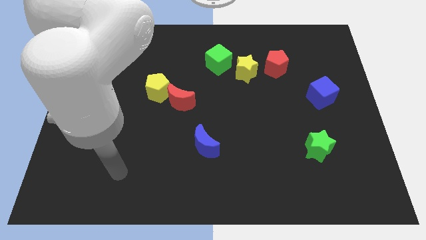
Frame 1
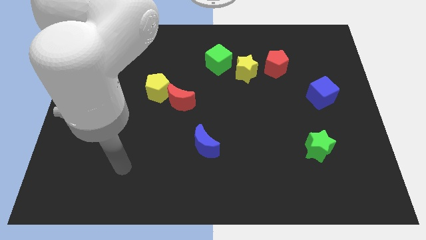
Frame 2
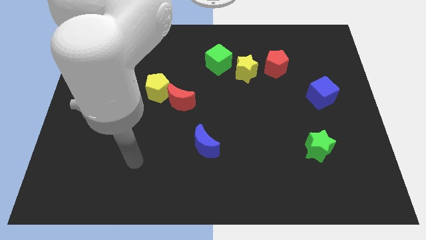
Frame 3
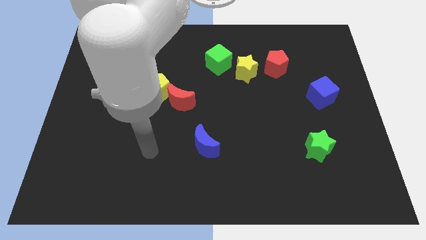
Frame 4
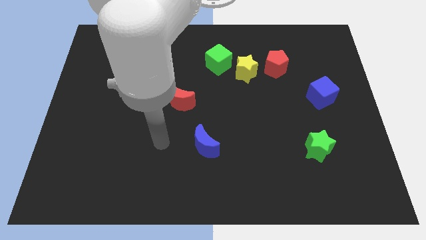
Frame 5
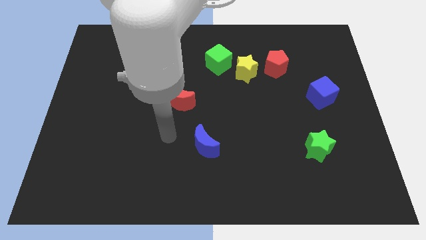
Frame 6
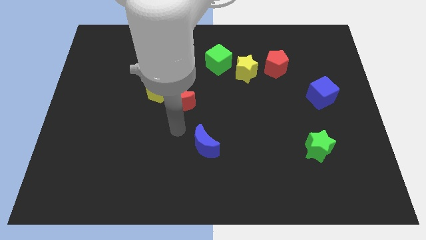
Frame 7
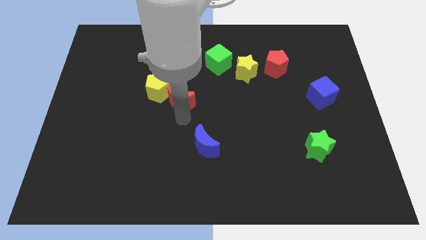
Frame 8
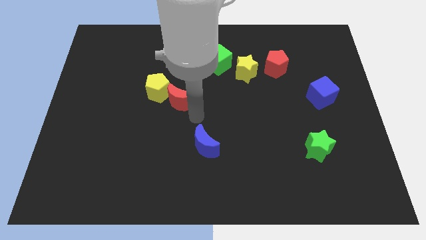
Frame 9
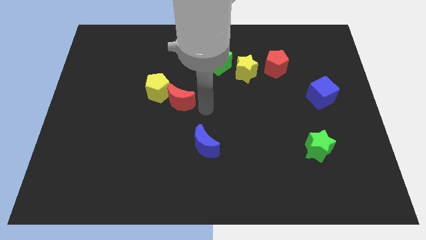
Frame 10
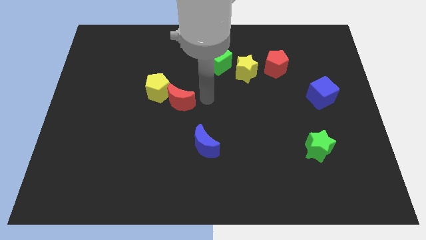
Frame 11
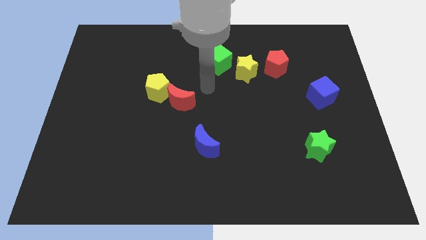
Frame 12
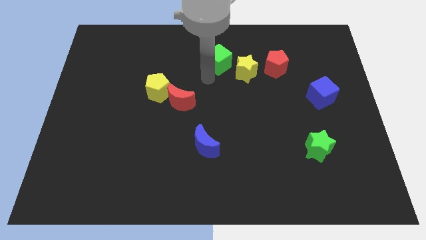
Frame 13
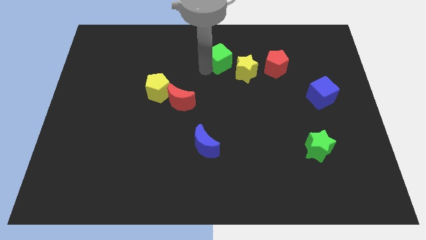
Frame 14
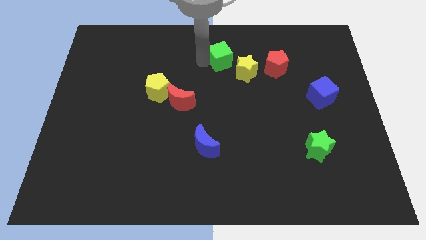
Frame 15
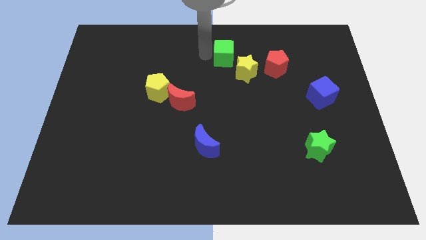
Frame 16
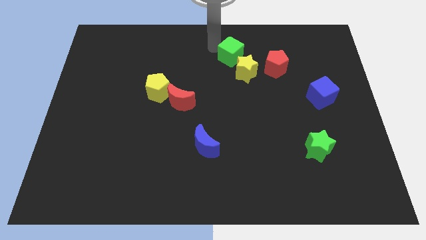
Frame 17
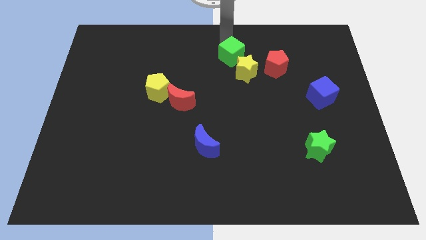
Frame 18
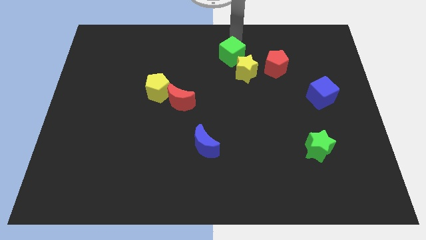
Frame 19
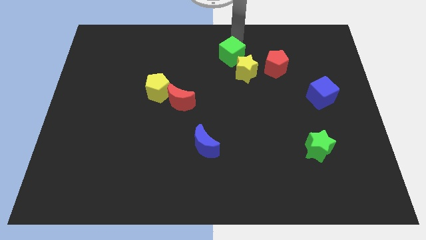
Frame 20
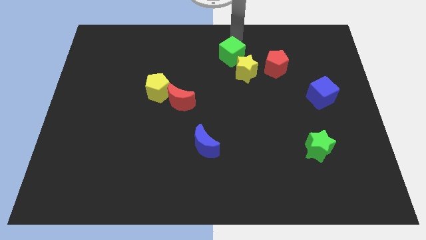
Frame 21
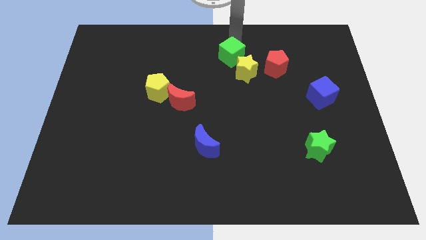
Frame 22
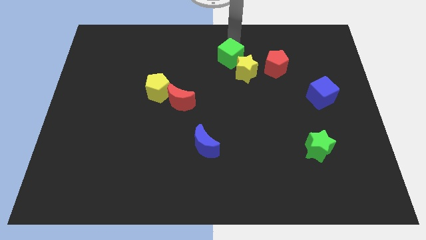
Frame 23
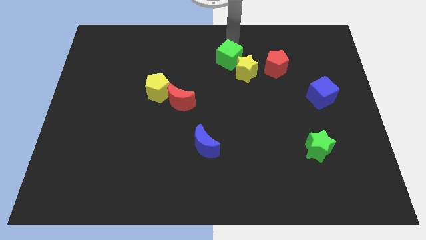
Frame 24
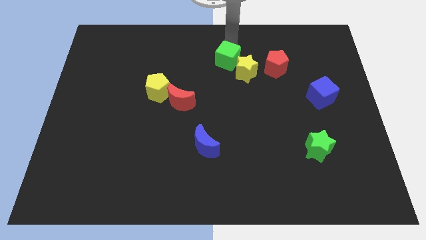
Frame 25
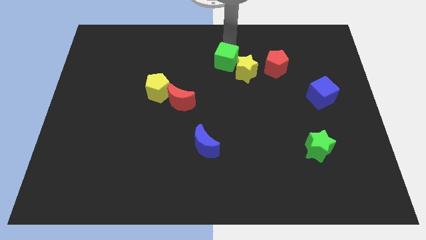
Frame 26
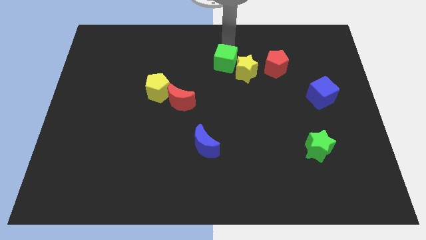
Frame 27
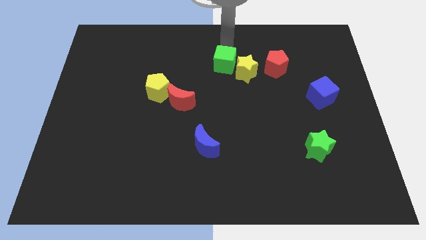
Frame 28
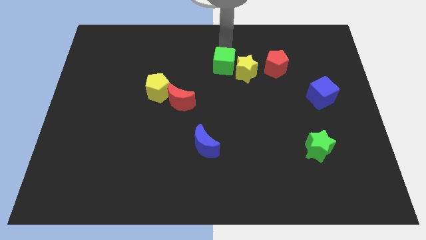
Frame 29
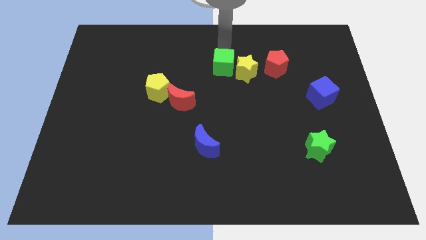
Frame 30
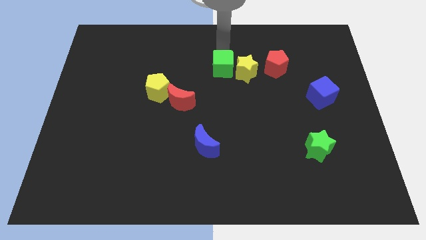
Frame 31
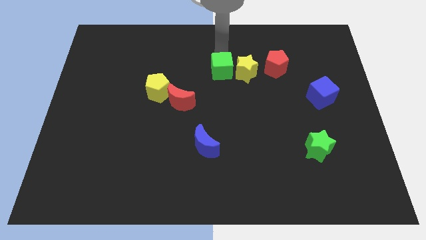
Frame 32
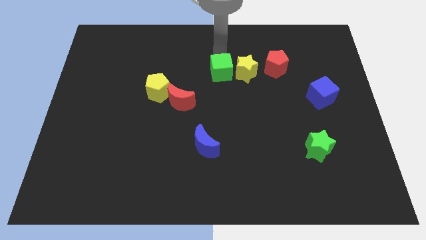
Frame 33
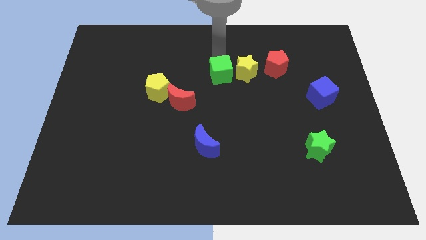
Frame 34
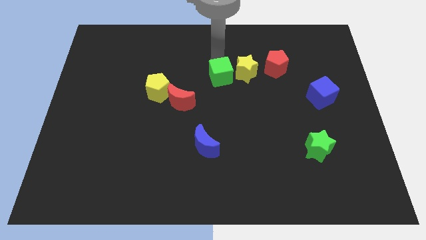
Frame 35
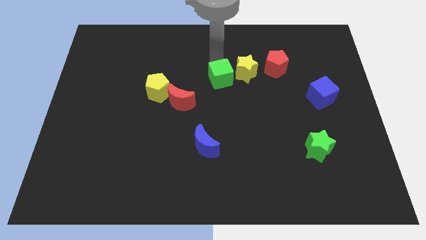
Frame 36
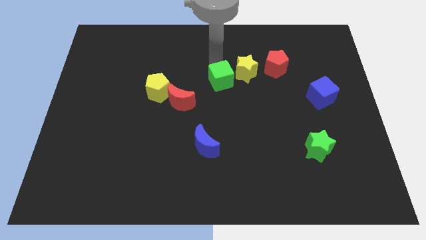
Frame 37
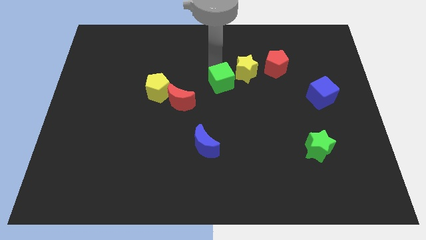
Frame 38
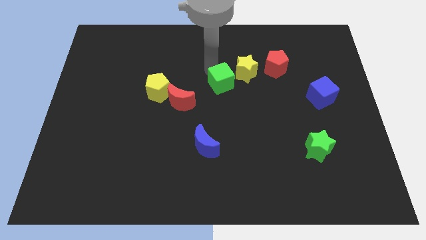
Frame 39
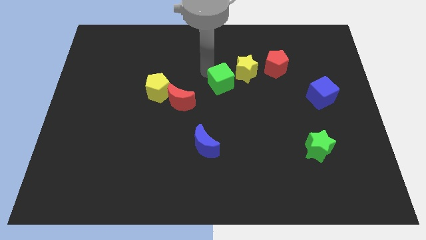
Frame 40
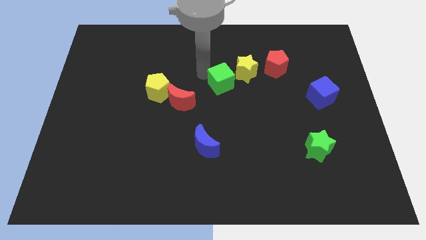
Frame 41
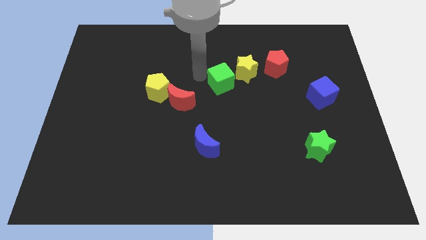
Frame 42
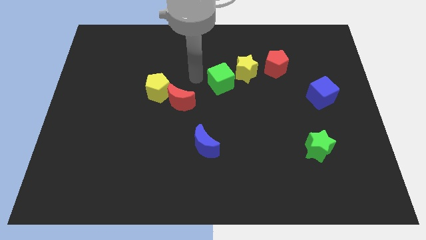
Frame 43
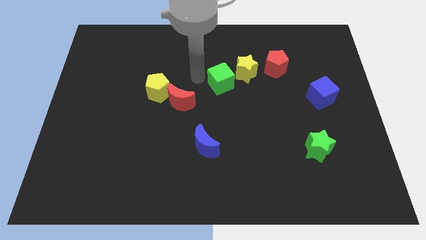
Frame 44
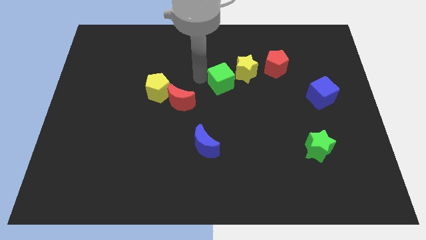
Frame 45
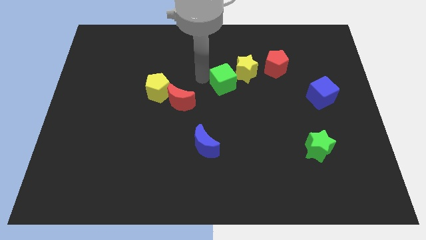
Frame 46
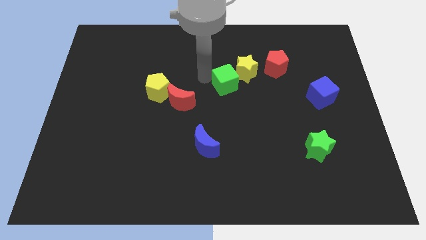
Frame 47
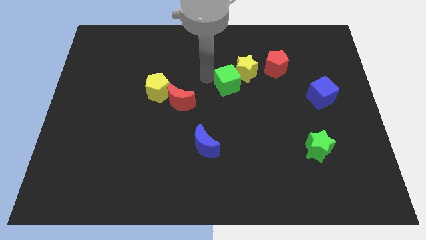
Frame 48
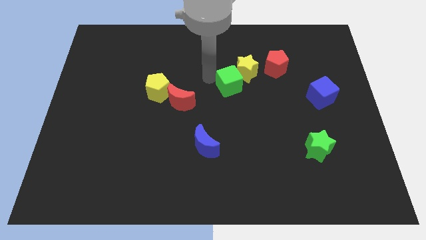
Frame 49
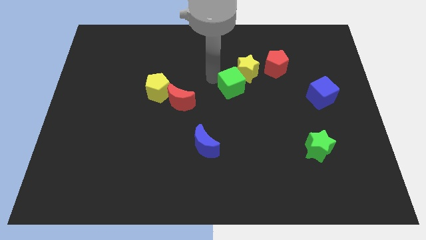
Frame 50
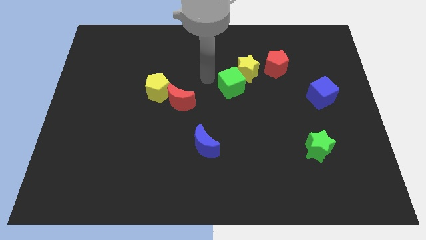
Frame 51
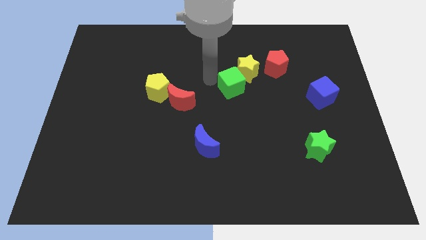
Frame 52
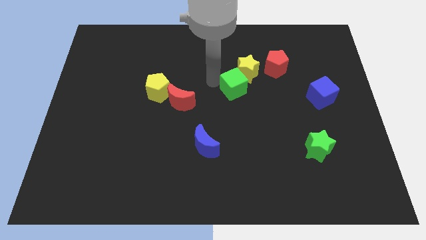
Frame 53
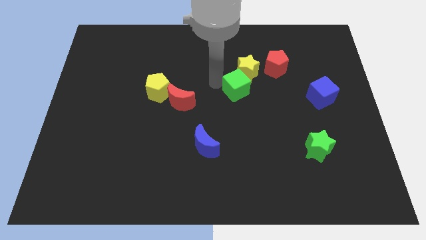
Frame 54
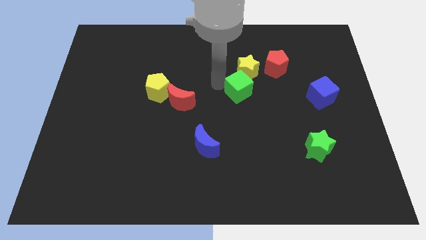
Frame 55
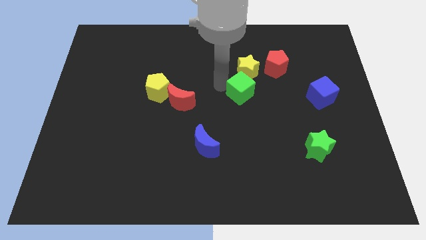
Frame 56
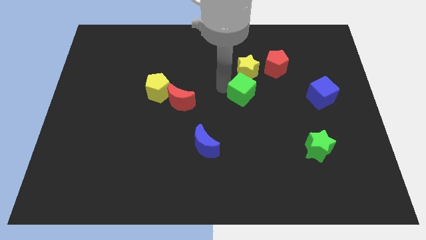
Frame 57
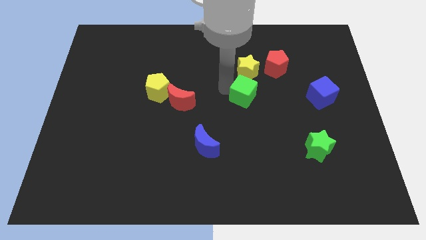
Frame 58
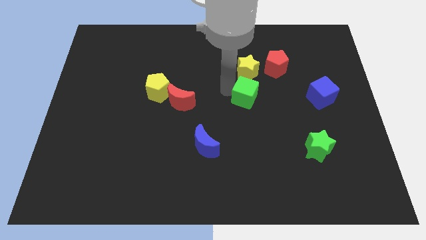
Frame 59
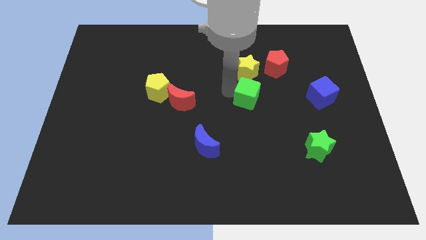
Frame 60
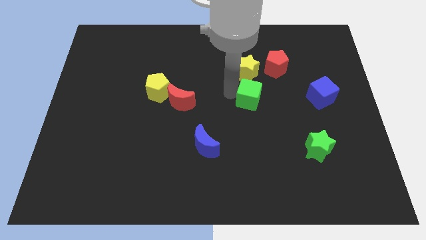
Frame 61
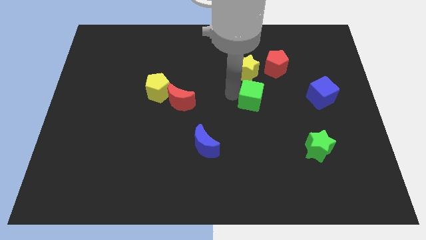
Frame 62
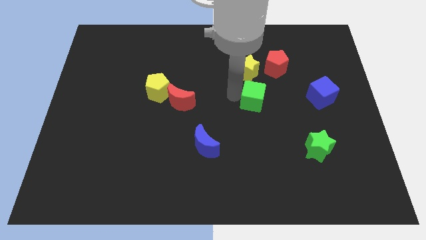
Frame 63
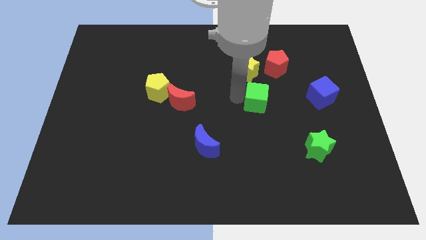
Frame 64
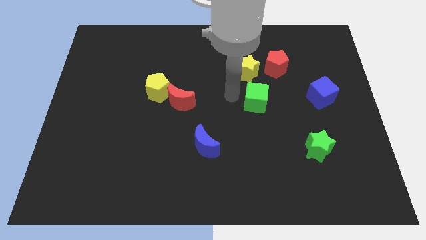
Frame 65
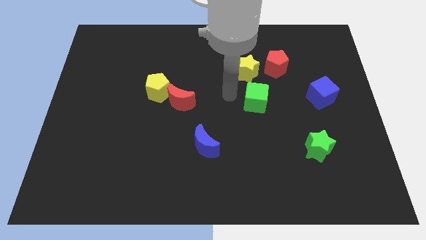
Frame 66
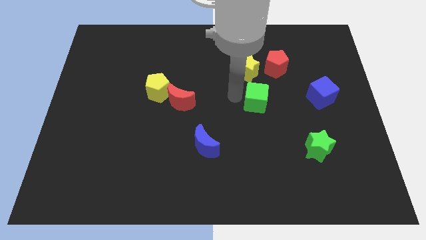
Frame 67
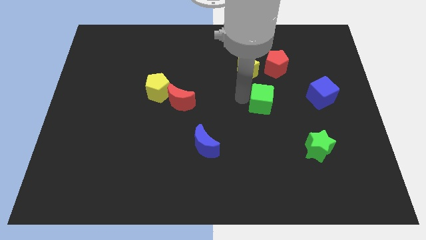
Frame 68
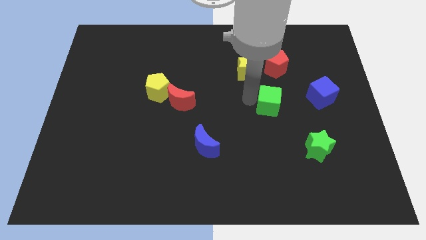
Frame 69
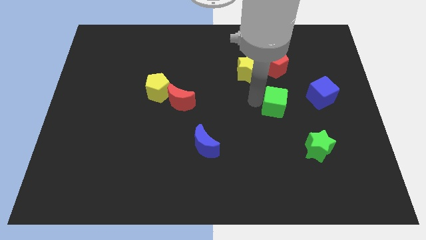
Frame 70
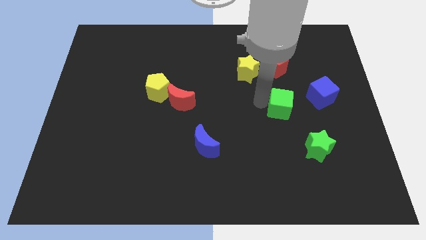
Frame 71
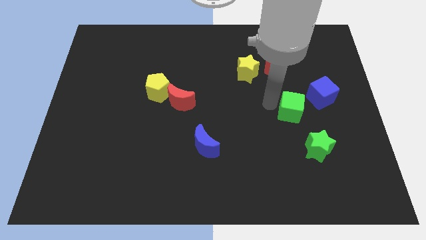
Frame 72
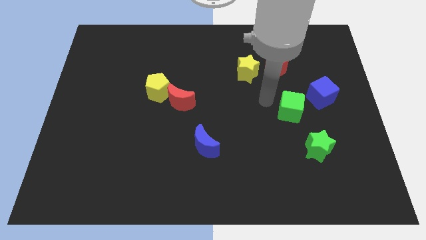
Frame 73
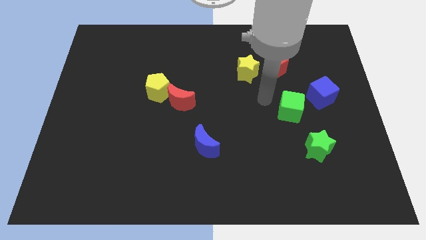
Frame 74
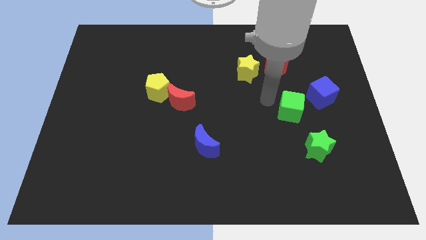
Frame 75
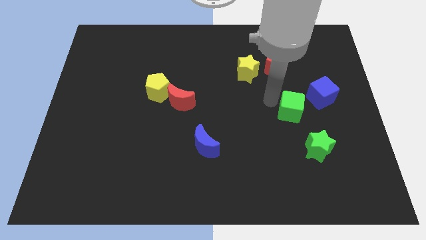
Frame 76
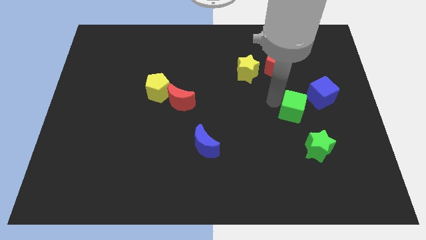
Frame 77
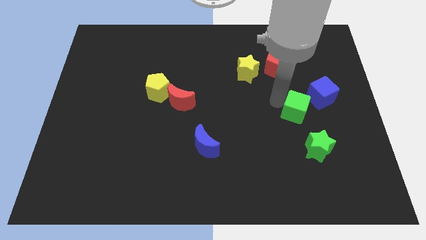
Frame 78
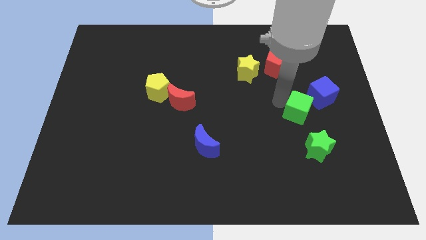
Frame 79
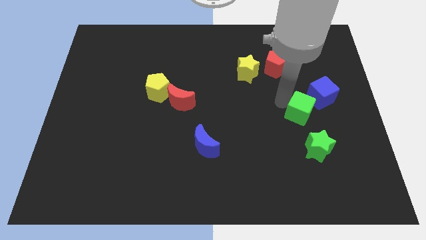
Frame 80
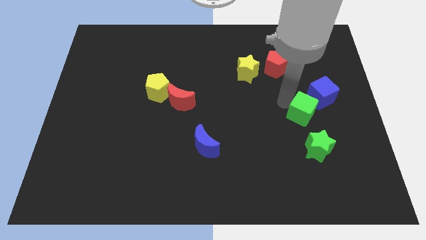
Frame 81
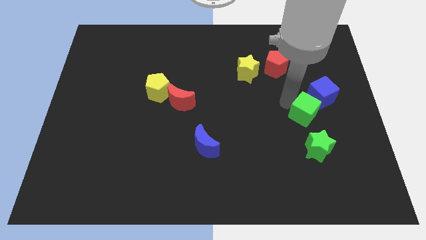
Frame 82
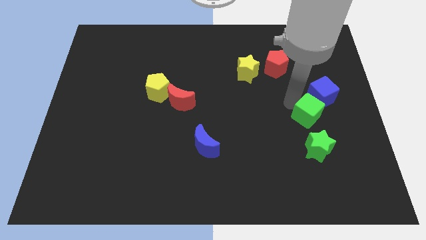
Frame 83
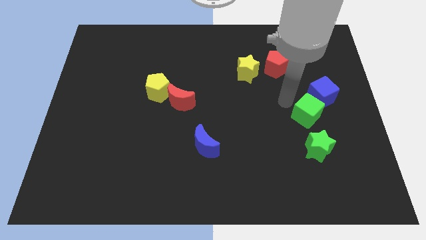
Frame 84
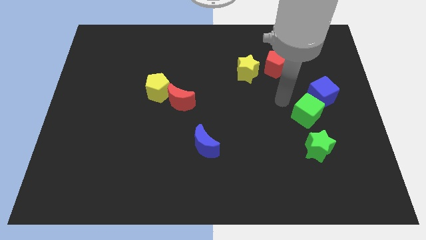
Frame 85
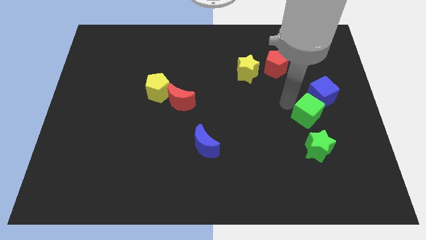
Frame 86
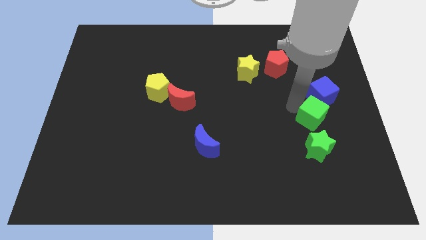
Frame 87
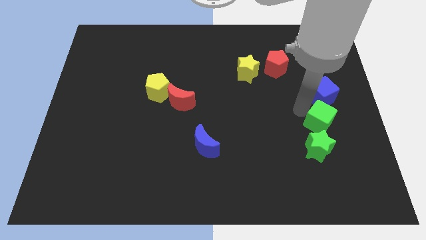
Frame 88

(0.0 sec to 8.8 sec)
move the green cube diagonally up and to the right of the green star
